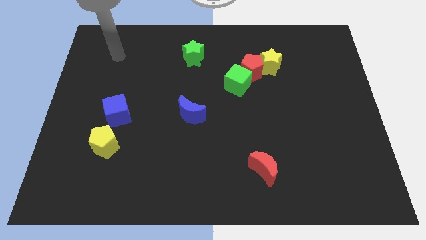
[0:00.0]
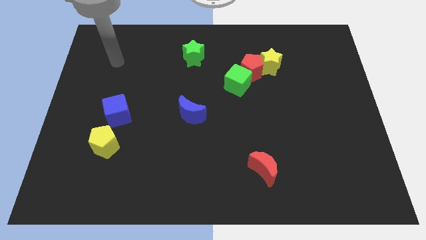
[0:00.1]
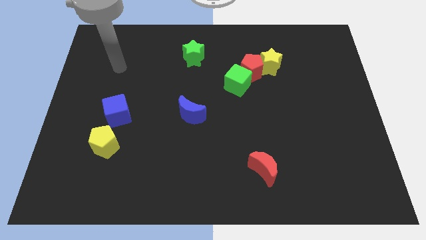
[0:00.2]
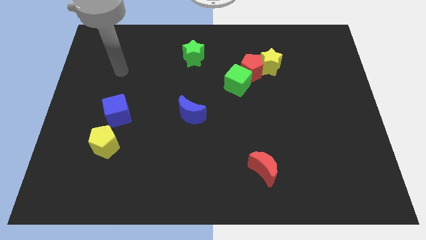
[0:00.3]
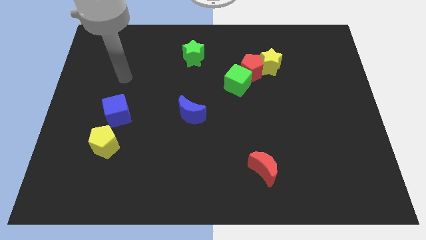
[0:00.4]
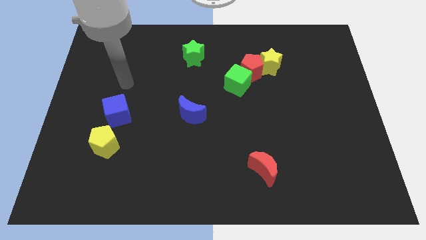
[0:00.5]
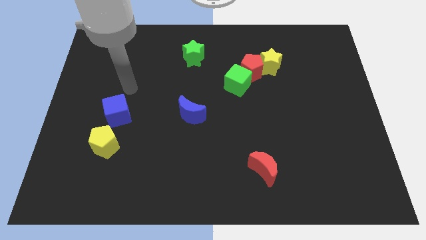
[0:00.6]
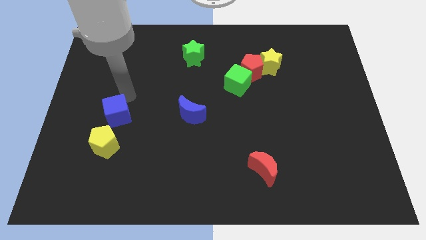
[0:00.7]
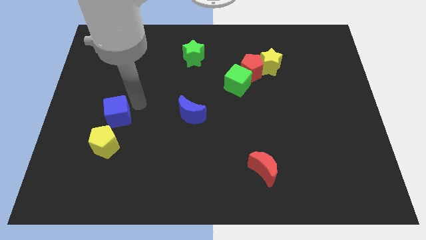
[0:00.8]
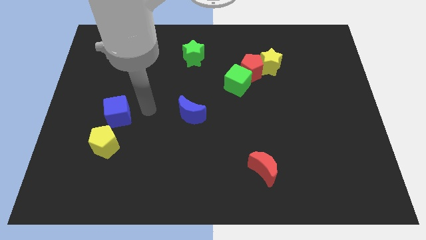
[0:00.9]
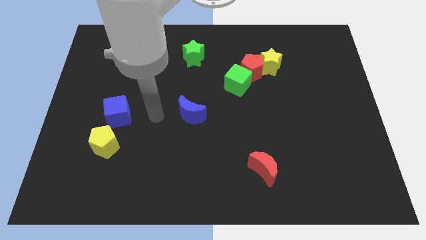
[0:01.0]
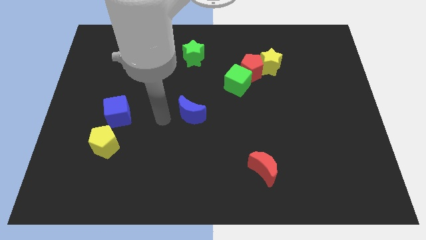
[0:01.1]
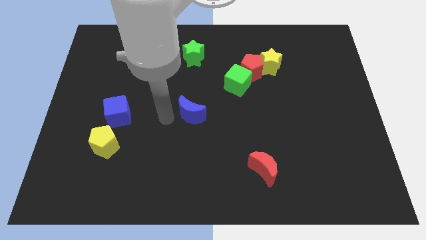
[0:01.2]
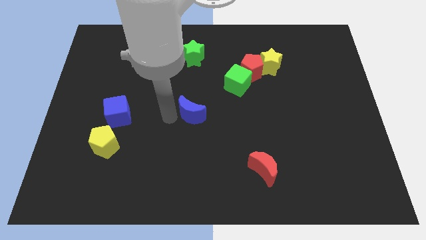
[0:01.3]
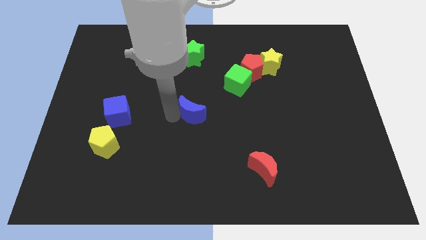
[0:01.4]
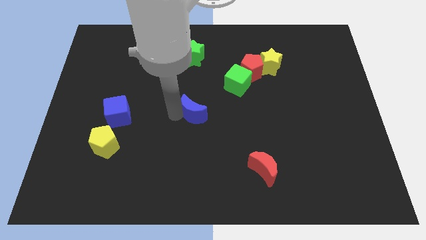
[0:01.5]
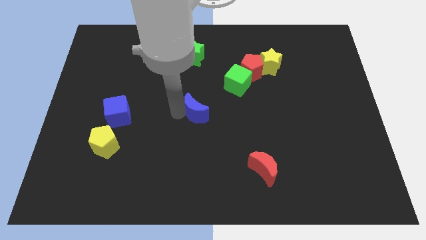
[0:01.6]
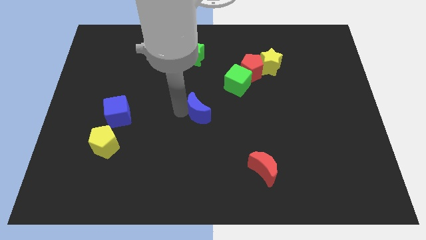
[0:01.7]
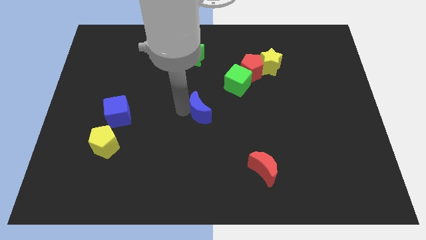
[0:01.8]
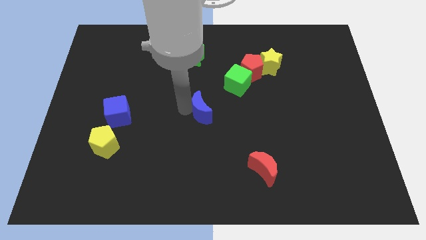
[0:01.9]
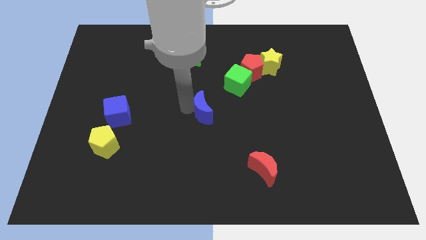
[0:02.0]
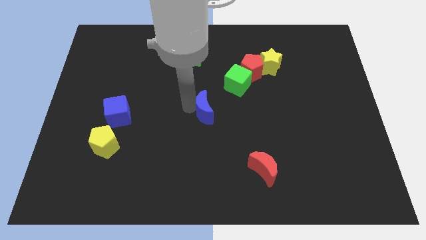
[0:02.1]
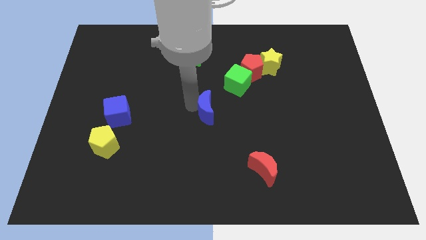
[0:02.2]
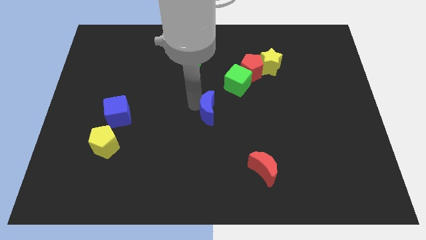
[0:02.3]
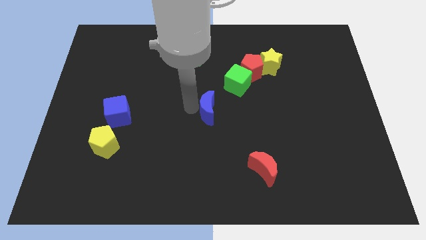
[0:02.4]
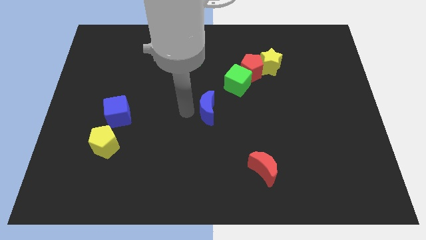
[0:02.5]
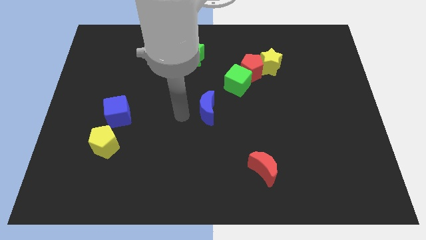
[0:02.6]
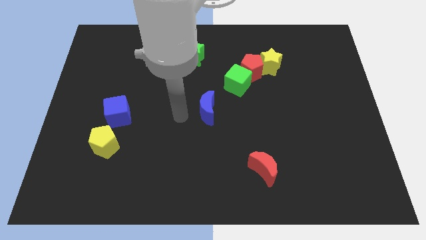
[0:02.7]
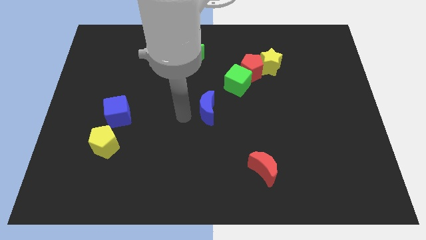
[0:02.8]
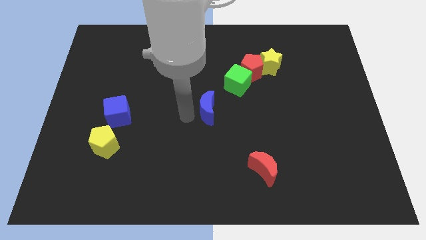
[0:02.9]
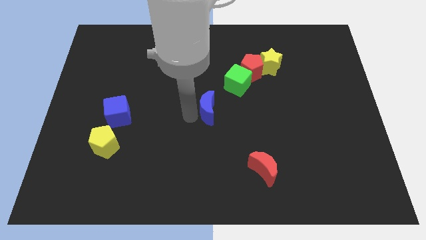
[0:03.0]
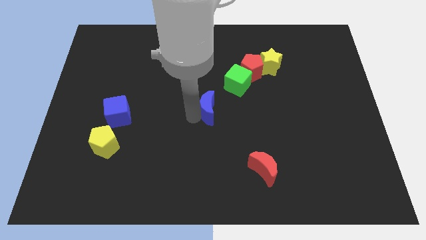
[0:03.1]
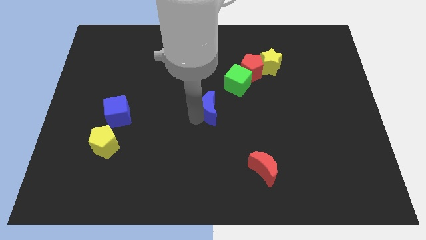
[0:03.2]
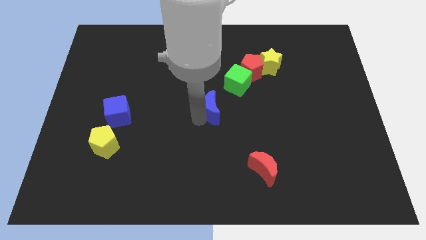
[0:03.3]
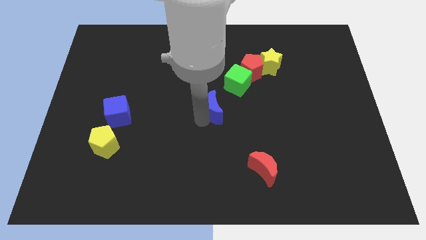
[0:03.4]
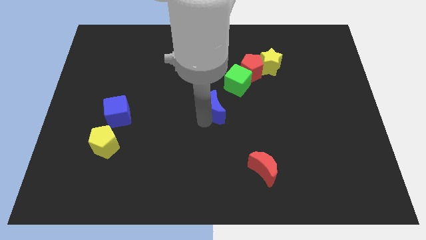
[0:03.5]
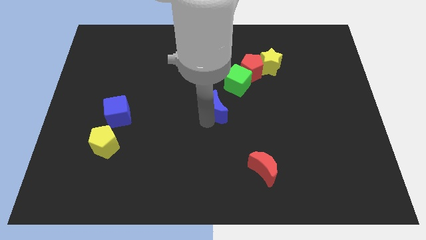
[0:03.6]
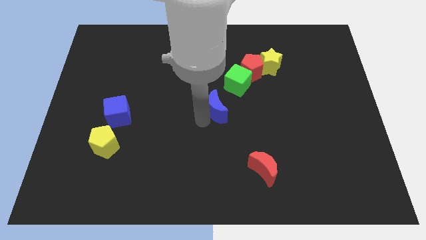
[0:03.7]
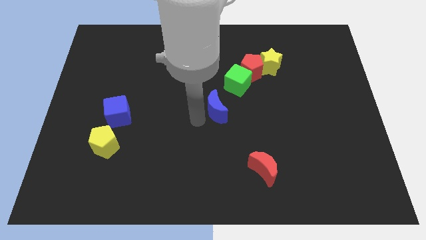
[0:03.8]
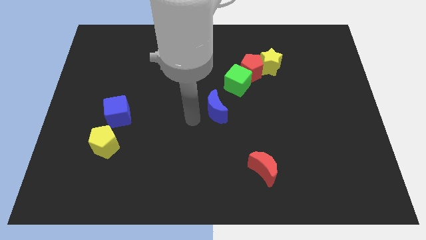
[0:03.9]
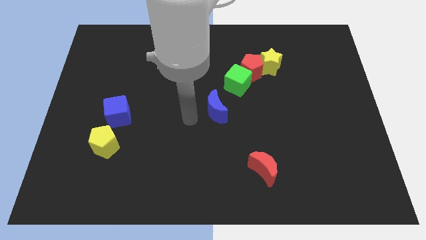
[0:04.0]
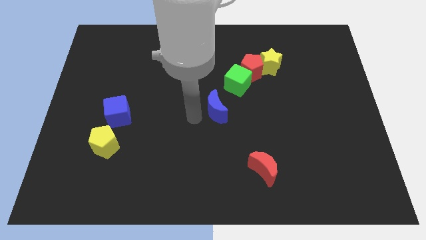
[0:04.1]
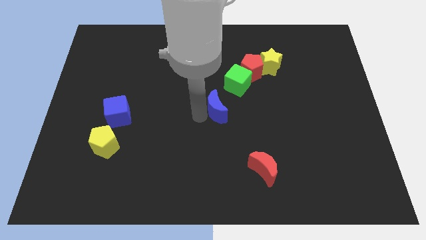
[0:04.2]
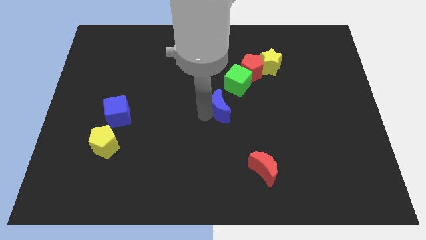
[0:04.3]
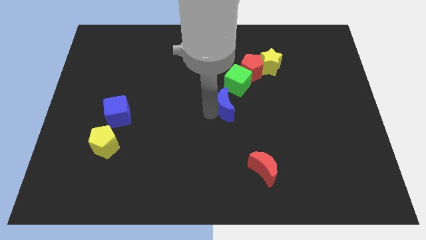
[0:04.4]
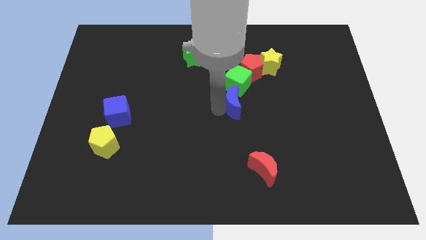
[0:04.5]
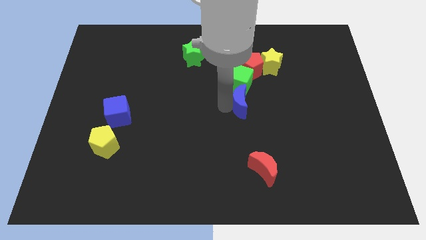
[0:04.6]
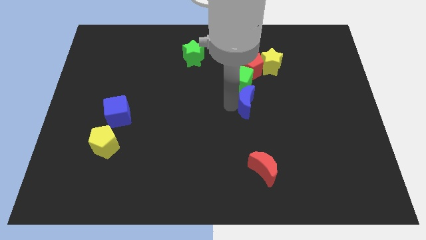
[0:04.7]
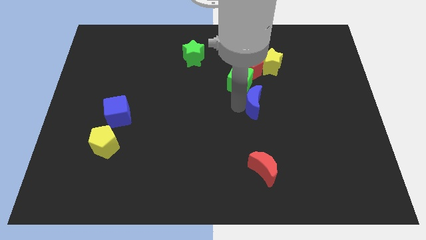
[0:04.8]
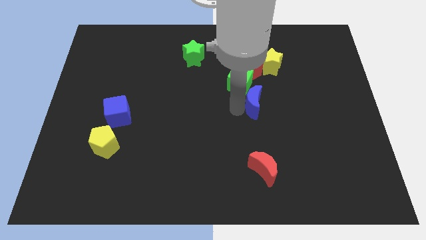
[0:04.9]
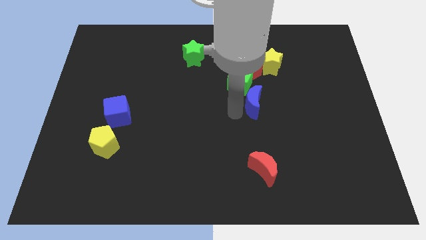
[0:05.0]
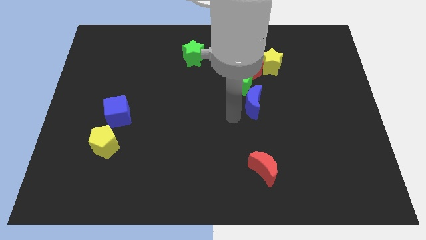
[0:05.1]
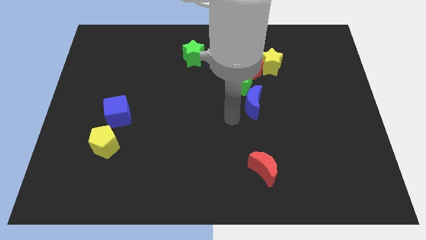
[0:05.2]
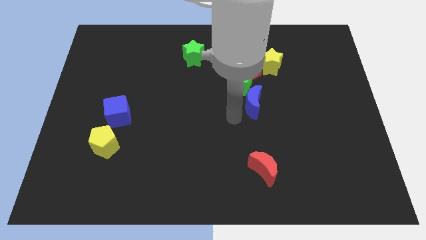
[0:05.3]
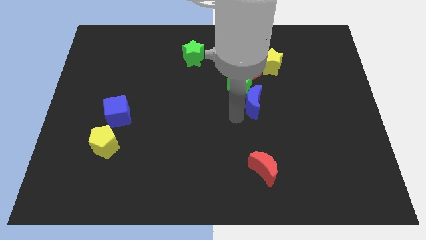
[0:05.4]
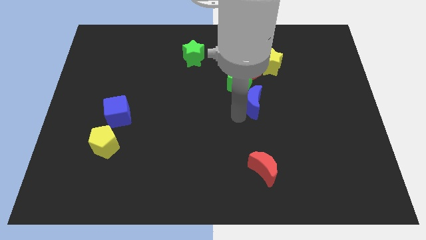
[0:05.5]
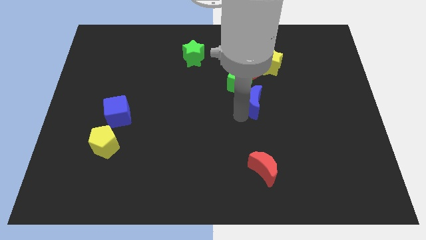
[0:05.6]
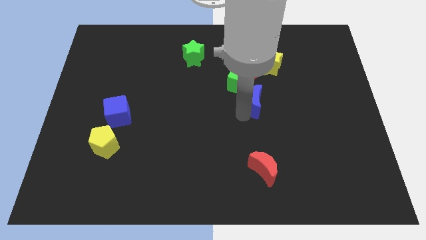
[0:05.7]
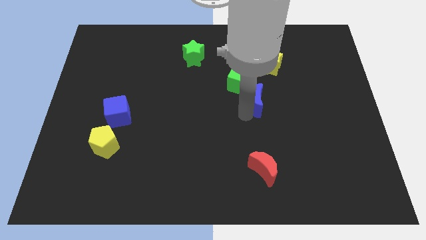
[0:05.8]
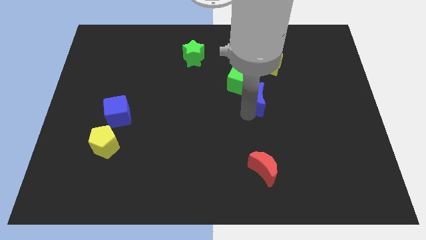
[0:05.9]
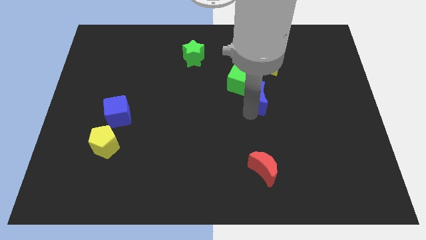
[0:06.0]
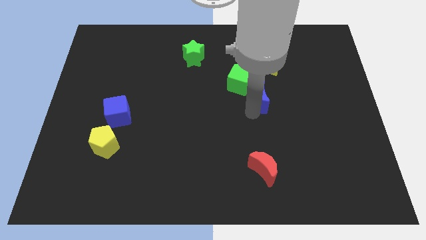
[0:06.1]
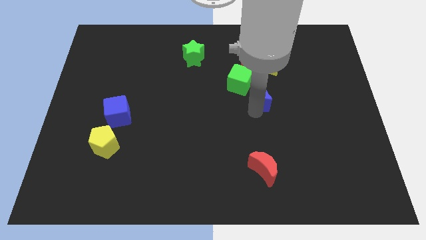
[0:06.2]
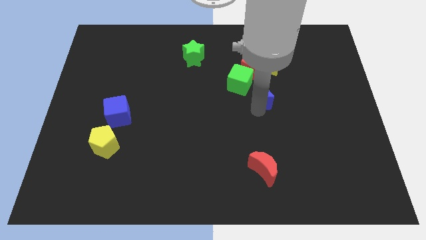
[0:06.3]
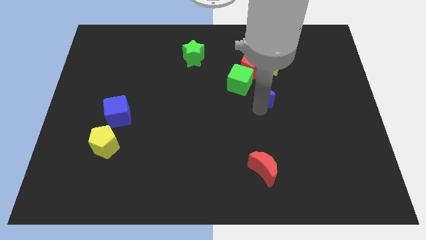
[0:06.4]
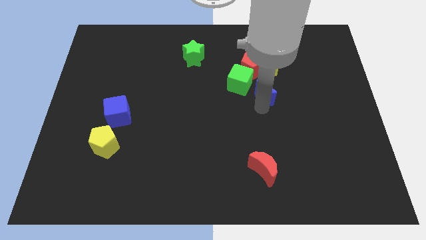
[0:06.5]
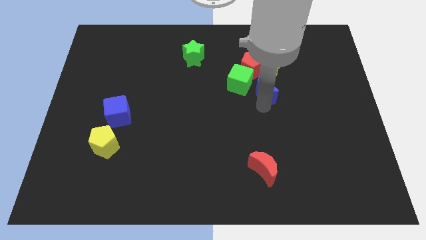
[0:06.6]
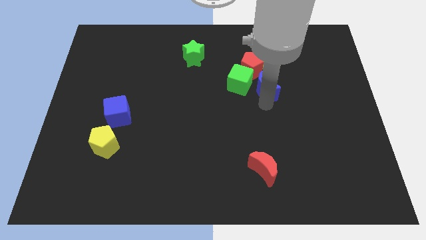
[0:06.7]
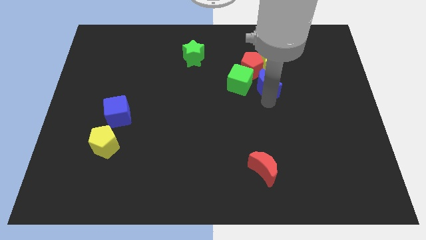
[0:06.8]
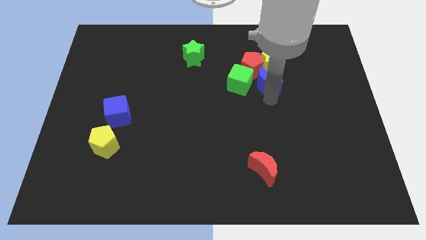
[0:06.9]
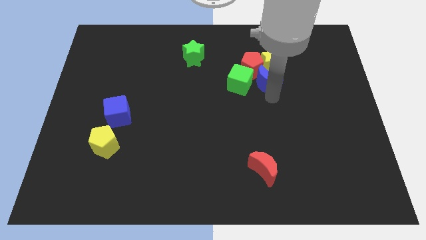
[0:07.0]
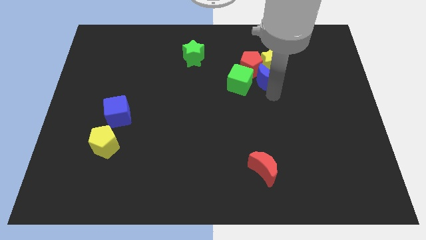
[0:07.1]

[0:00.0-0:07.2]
move the blue moon towards the yellow star

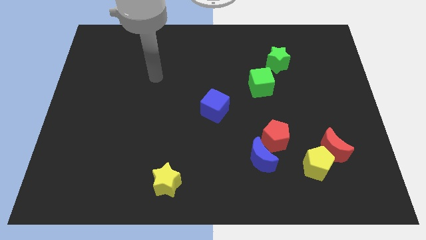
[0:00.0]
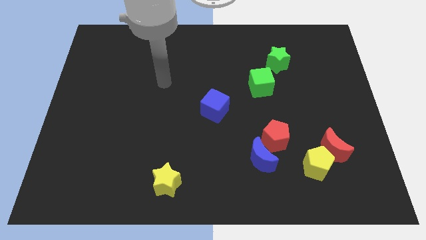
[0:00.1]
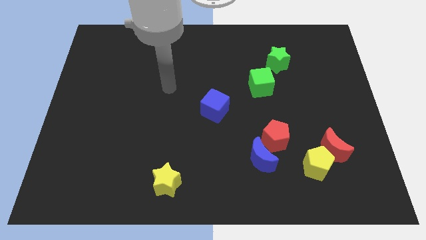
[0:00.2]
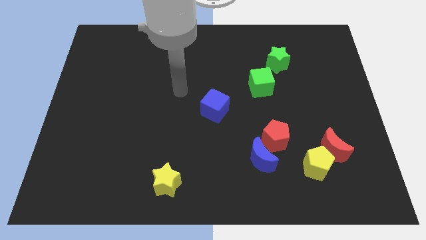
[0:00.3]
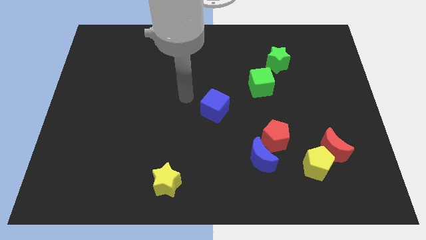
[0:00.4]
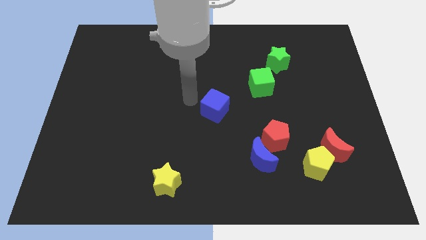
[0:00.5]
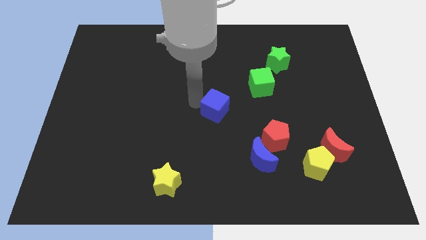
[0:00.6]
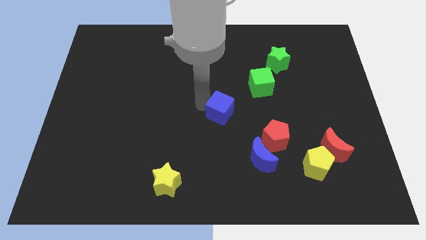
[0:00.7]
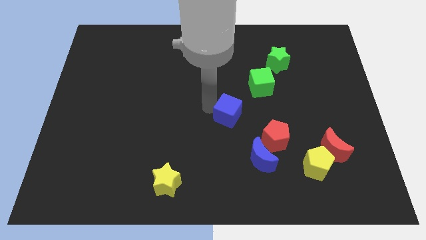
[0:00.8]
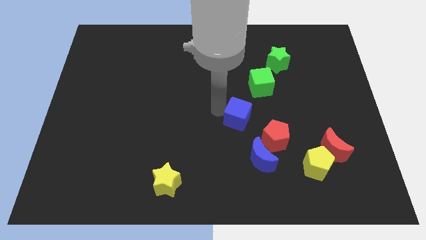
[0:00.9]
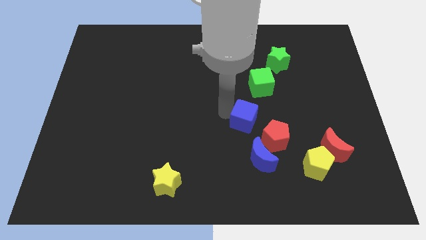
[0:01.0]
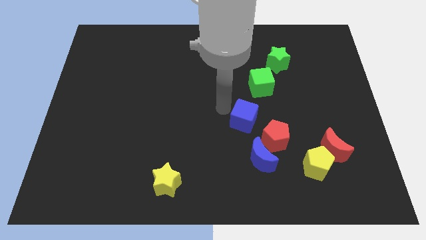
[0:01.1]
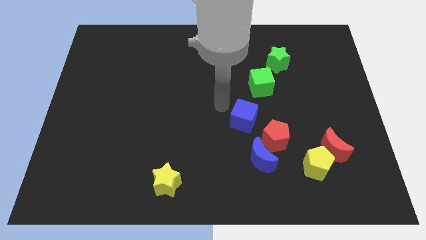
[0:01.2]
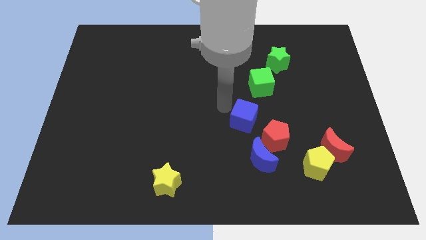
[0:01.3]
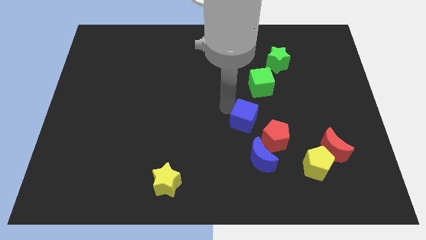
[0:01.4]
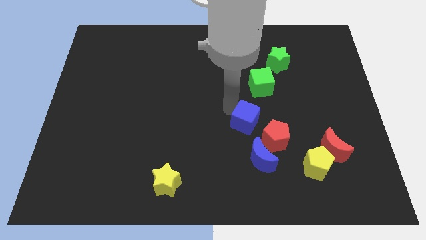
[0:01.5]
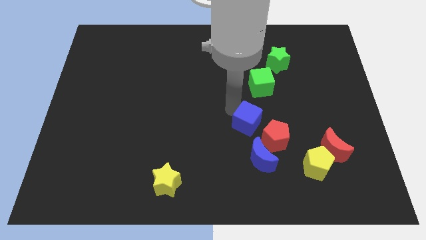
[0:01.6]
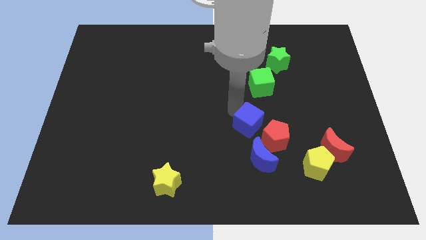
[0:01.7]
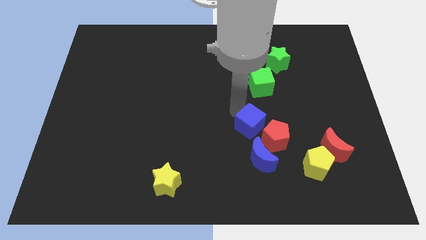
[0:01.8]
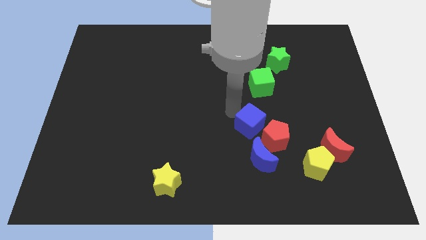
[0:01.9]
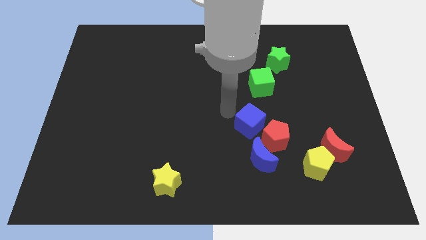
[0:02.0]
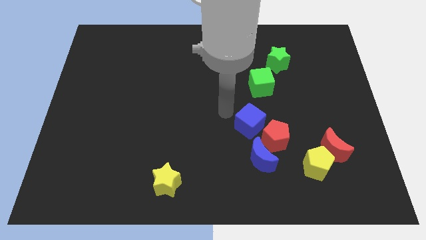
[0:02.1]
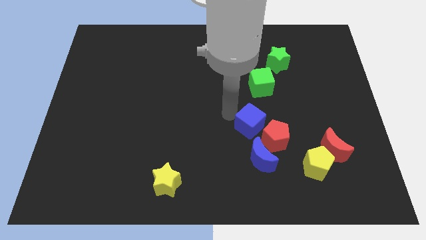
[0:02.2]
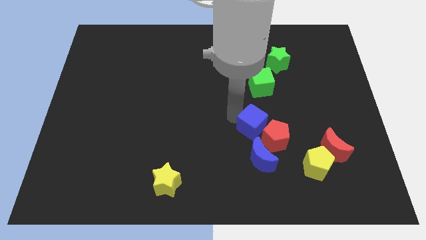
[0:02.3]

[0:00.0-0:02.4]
push the blue cube close to the red pentagon
